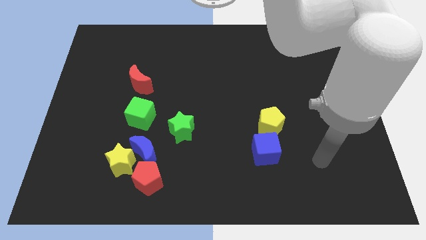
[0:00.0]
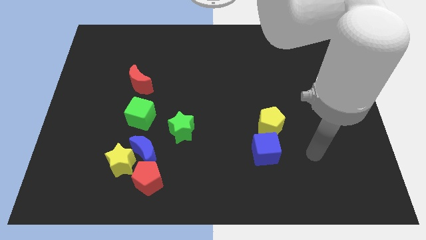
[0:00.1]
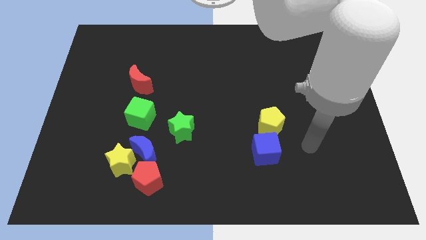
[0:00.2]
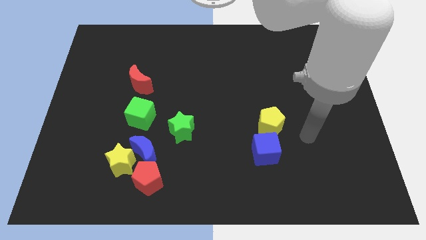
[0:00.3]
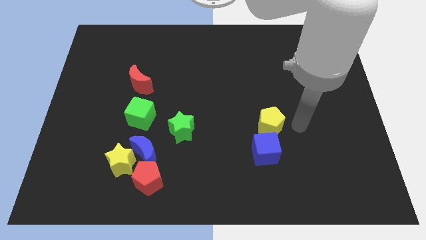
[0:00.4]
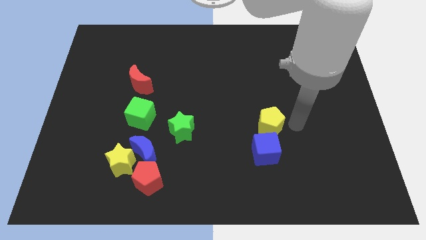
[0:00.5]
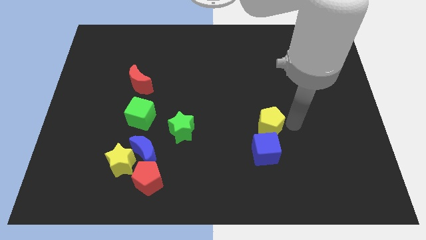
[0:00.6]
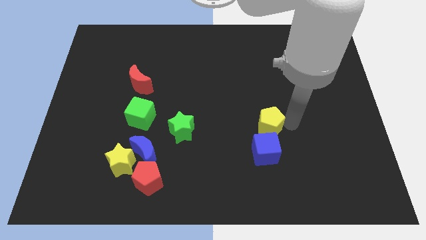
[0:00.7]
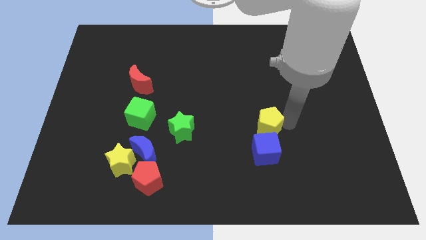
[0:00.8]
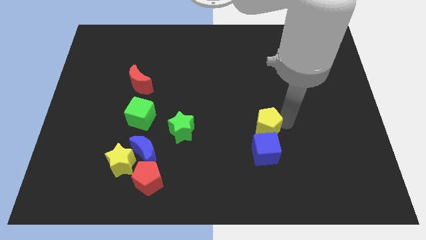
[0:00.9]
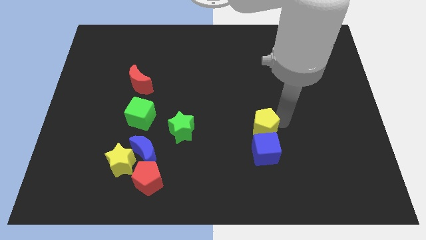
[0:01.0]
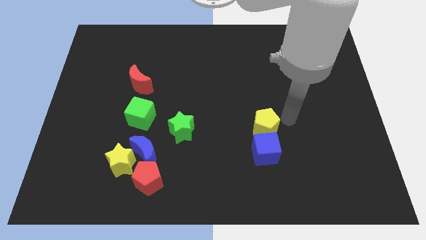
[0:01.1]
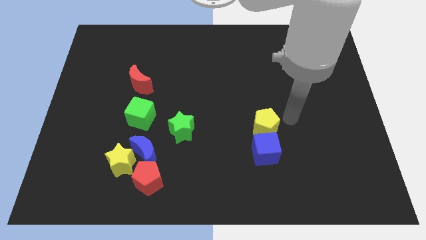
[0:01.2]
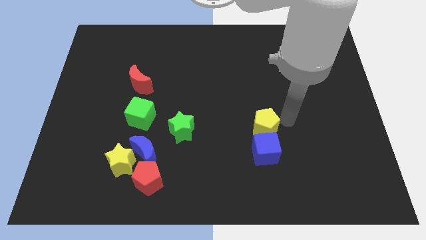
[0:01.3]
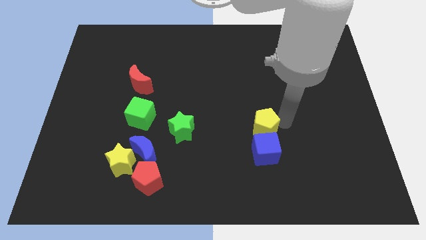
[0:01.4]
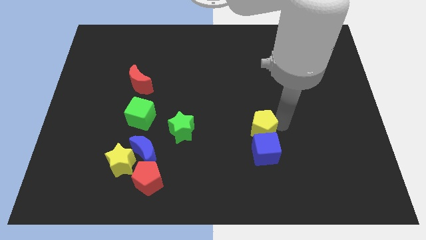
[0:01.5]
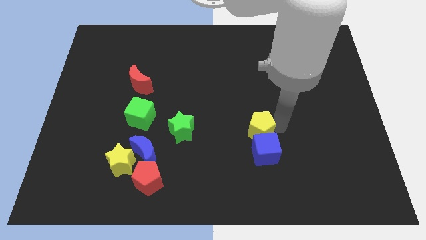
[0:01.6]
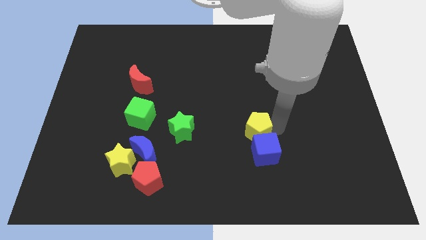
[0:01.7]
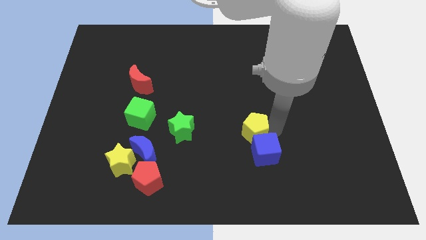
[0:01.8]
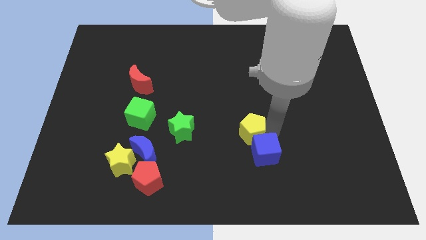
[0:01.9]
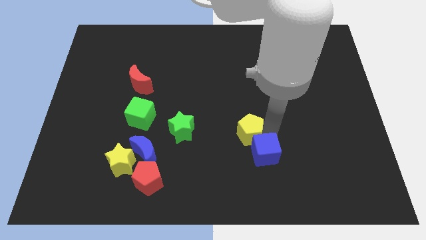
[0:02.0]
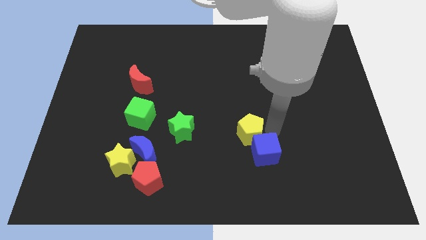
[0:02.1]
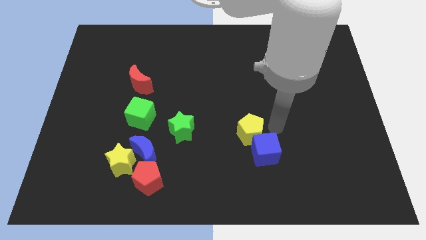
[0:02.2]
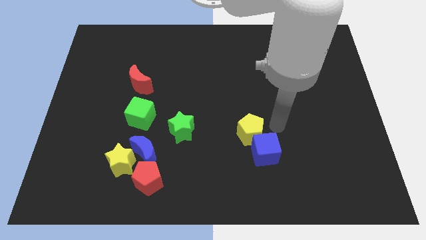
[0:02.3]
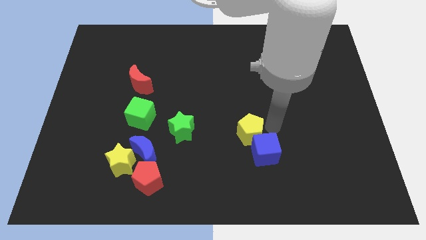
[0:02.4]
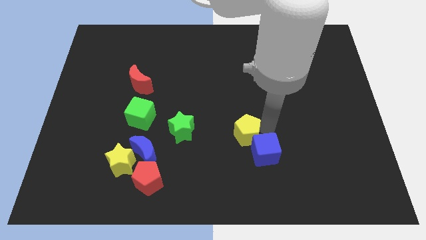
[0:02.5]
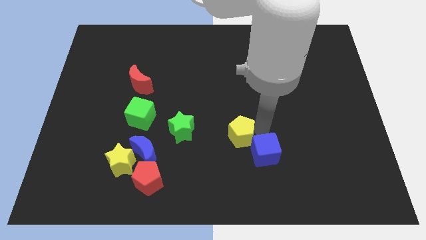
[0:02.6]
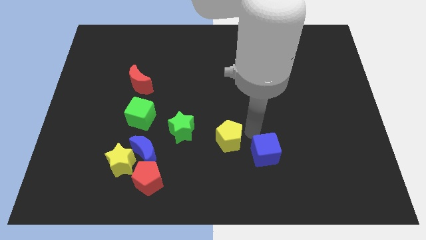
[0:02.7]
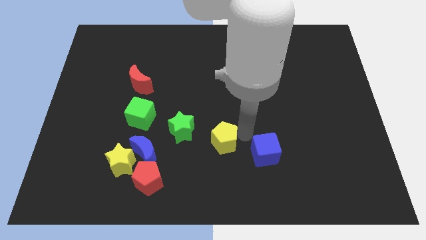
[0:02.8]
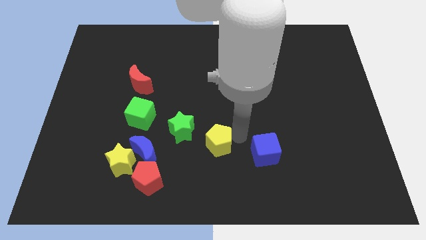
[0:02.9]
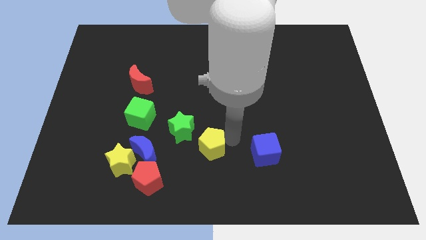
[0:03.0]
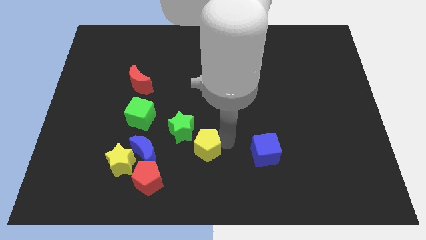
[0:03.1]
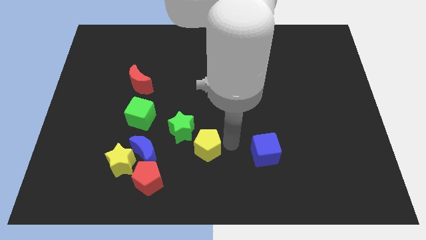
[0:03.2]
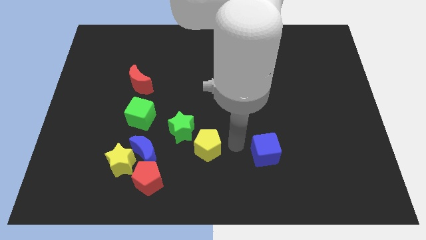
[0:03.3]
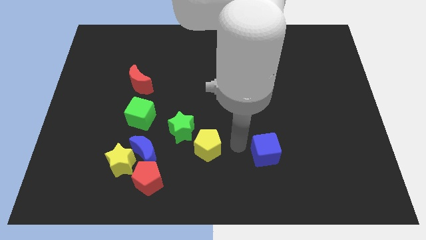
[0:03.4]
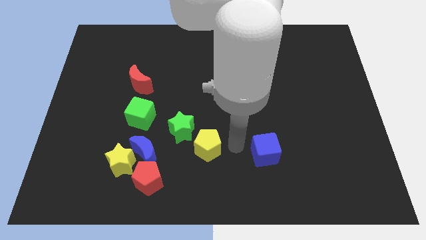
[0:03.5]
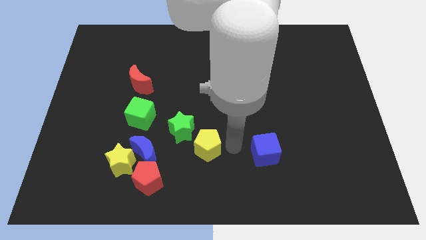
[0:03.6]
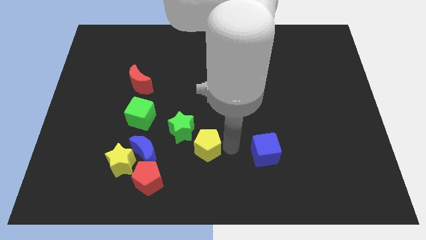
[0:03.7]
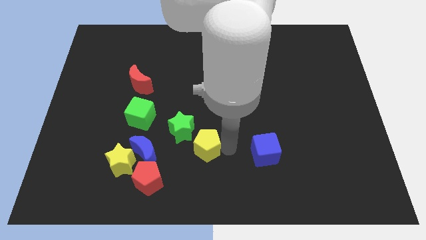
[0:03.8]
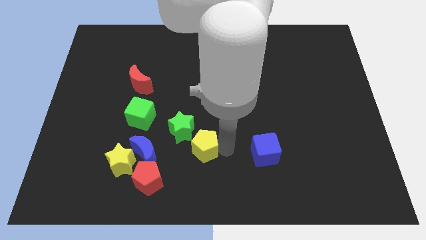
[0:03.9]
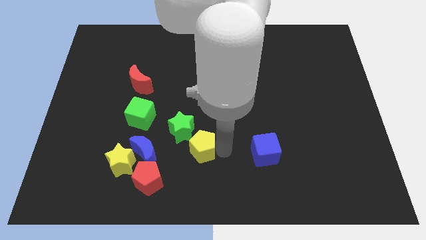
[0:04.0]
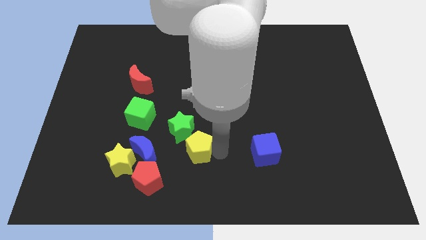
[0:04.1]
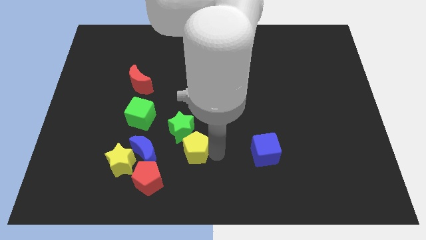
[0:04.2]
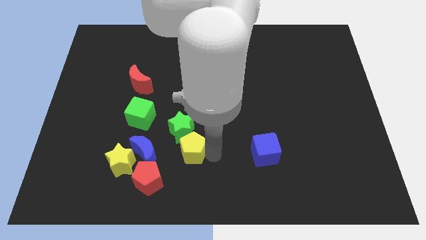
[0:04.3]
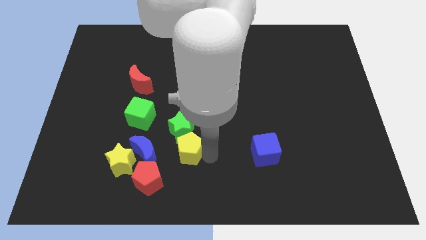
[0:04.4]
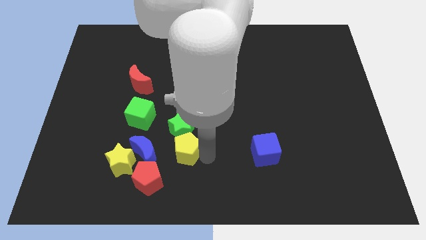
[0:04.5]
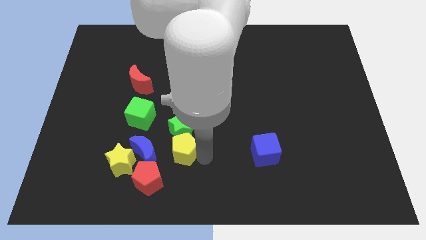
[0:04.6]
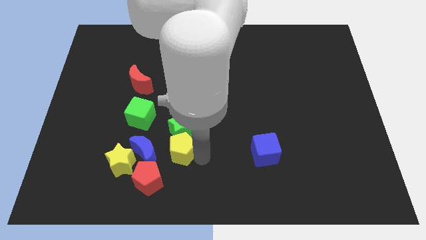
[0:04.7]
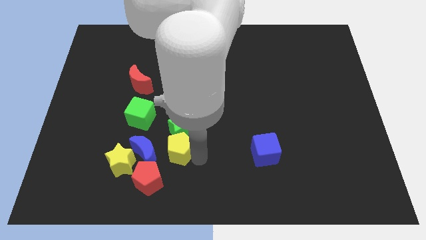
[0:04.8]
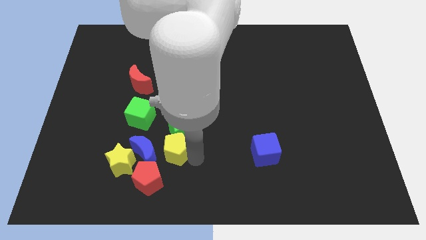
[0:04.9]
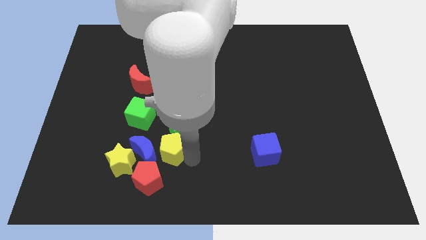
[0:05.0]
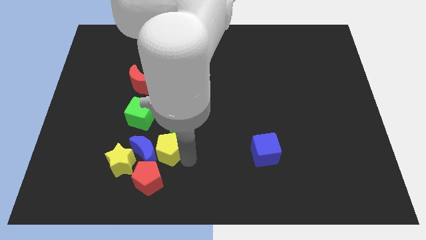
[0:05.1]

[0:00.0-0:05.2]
move the yellow pentagon left

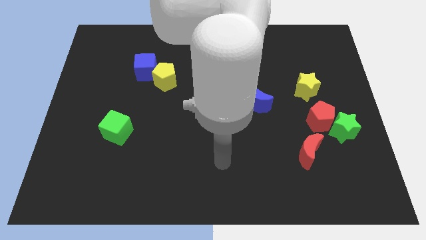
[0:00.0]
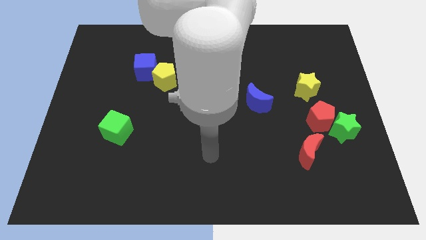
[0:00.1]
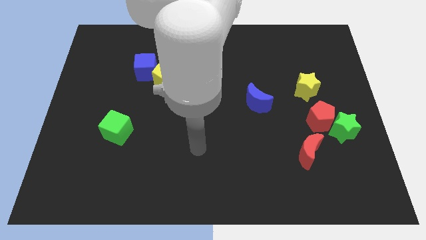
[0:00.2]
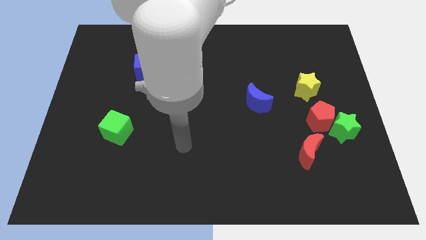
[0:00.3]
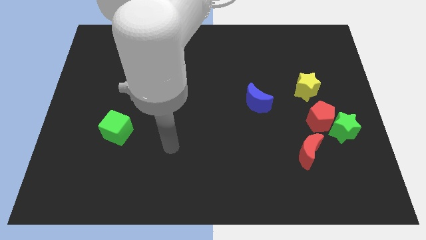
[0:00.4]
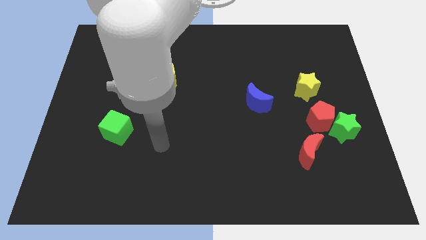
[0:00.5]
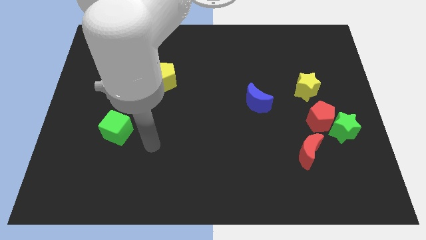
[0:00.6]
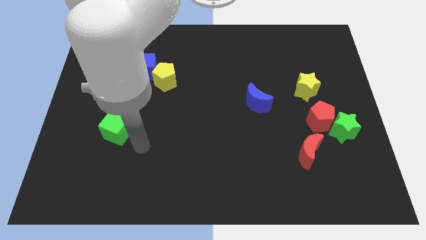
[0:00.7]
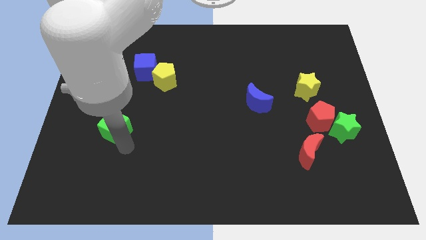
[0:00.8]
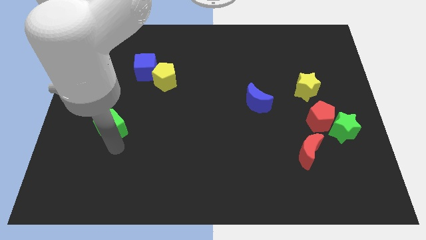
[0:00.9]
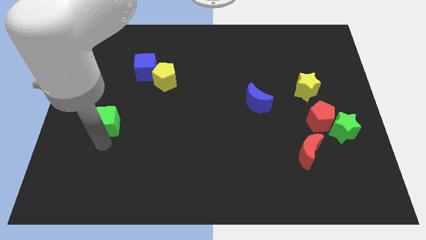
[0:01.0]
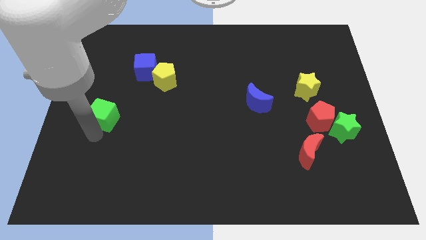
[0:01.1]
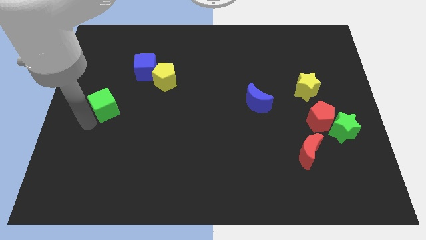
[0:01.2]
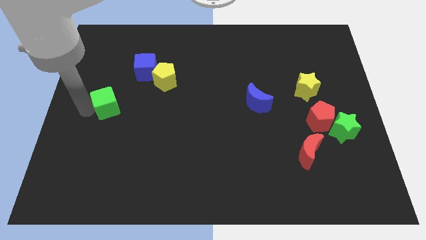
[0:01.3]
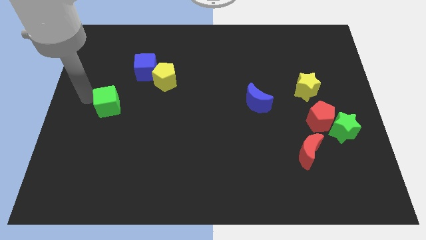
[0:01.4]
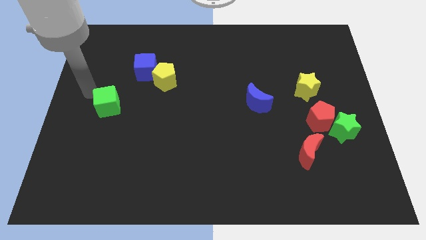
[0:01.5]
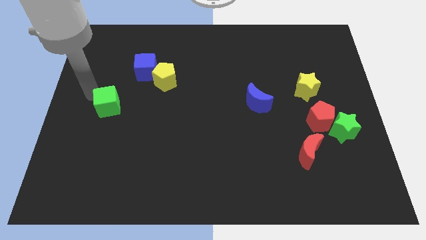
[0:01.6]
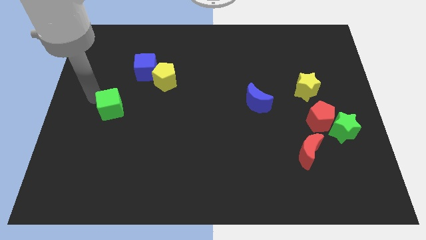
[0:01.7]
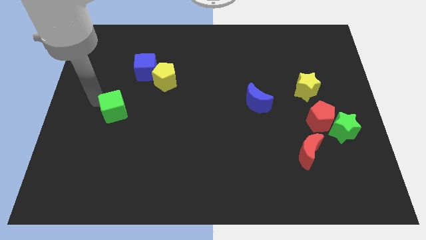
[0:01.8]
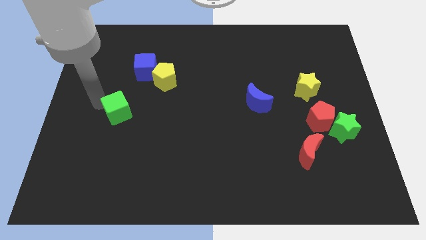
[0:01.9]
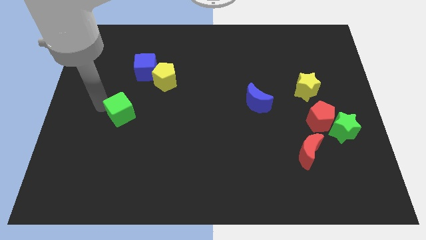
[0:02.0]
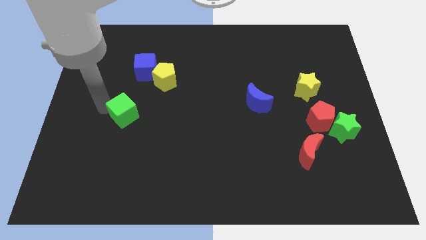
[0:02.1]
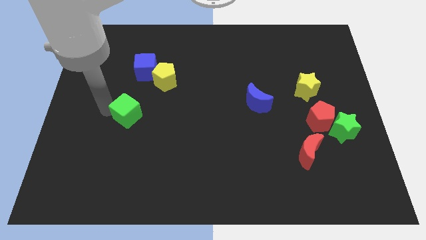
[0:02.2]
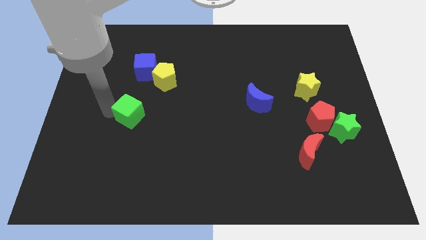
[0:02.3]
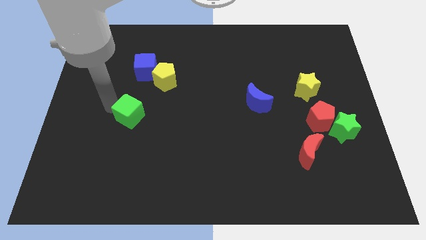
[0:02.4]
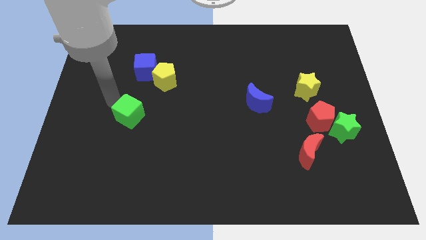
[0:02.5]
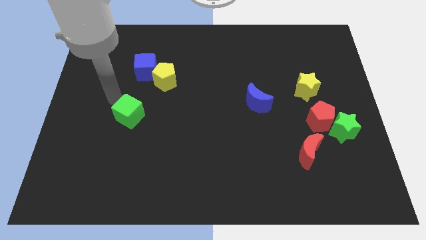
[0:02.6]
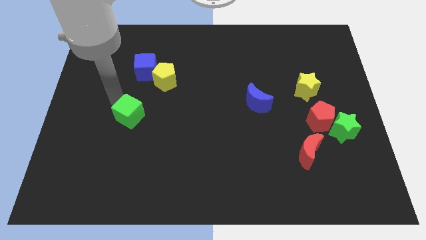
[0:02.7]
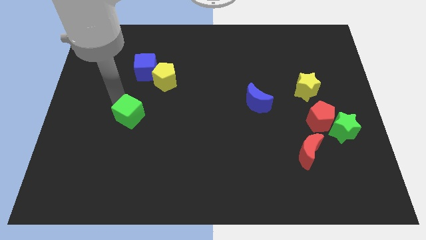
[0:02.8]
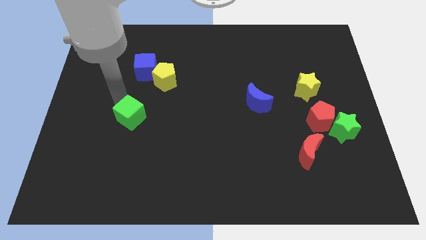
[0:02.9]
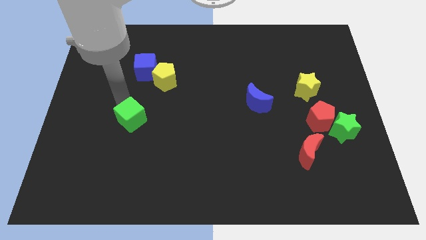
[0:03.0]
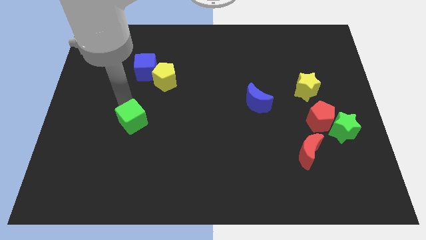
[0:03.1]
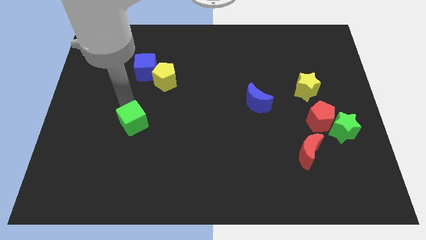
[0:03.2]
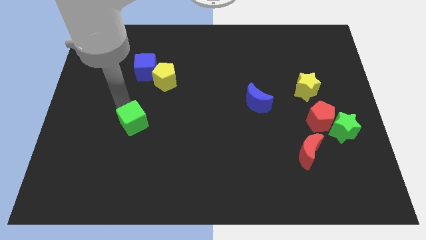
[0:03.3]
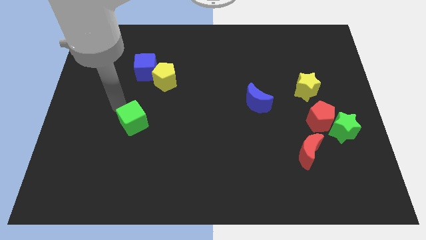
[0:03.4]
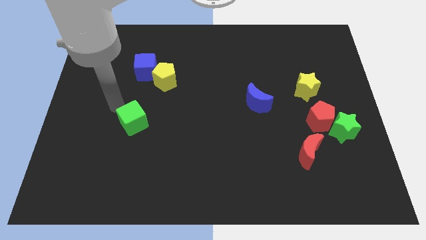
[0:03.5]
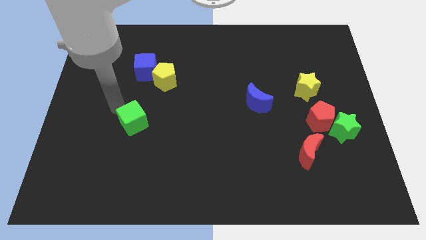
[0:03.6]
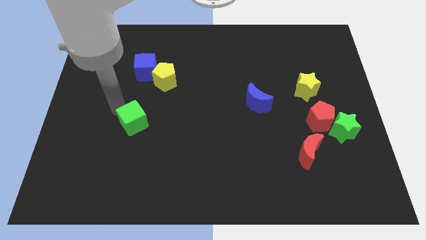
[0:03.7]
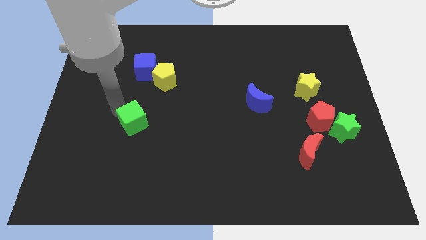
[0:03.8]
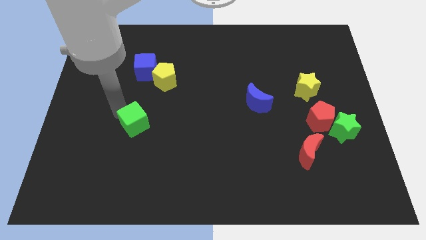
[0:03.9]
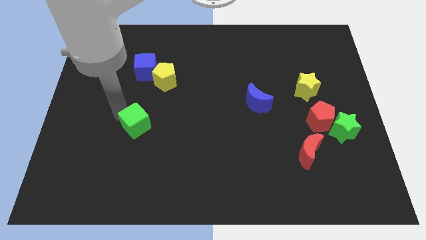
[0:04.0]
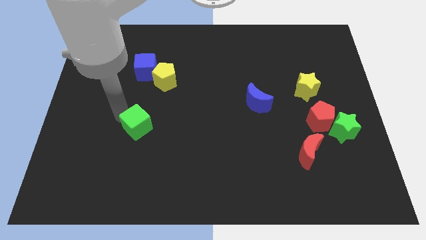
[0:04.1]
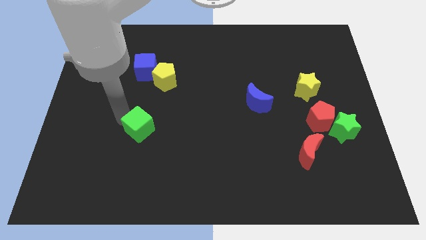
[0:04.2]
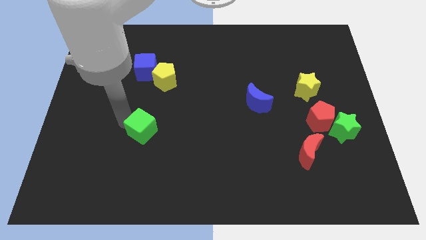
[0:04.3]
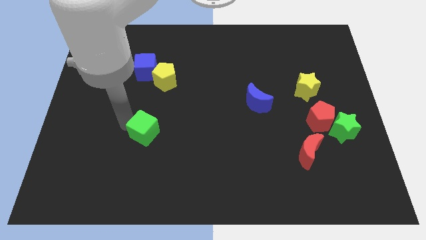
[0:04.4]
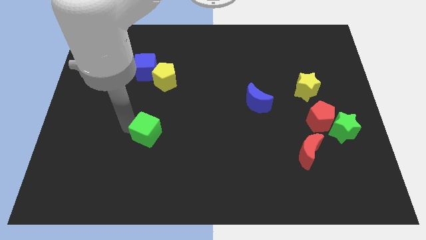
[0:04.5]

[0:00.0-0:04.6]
move the green cube to the right slightly
